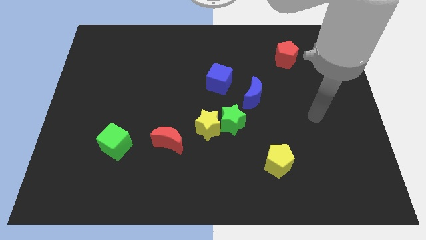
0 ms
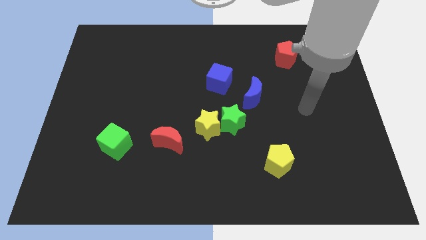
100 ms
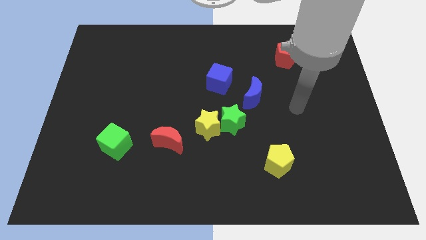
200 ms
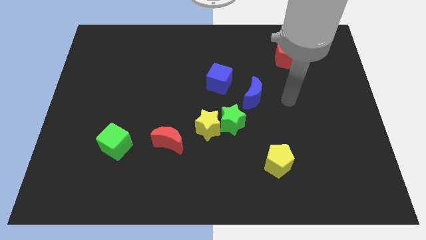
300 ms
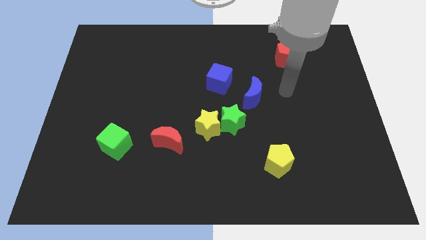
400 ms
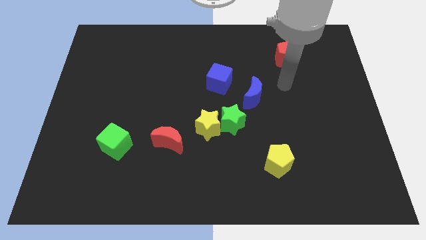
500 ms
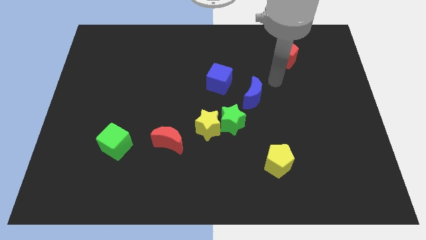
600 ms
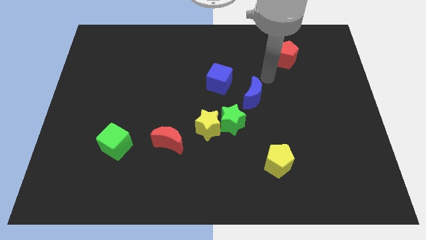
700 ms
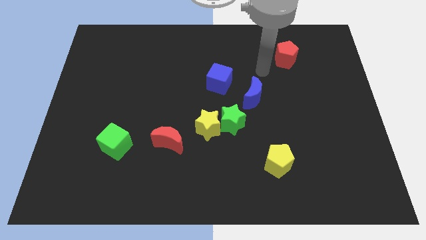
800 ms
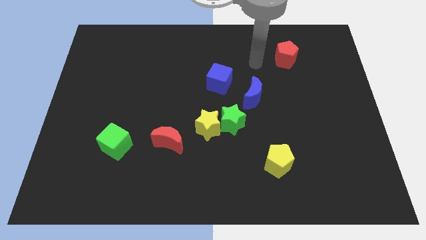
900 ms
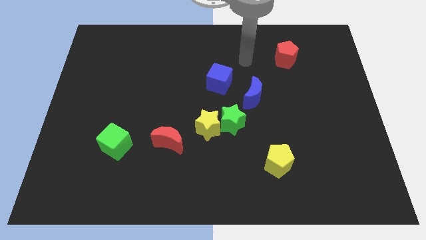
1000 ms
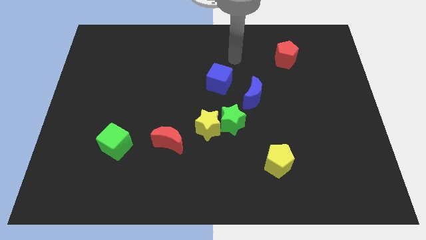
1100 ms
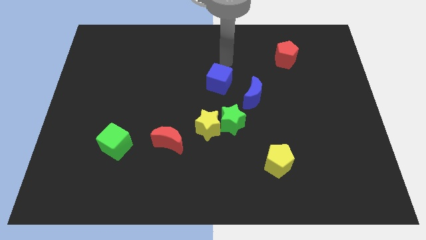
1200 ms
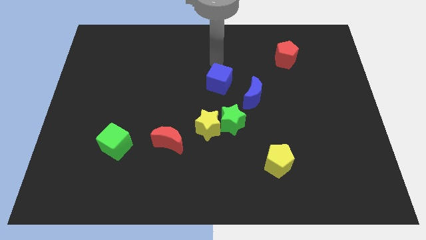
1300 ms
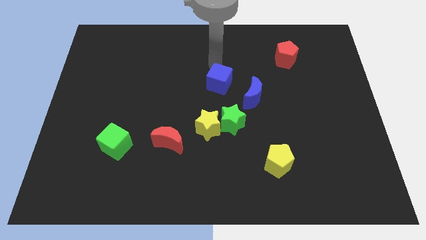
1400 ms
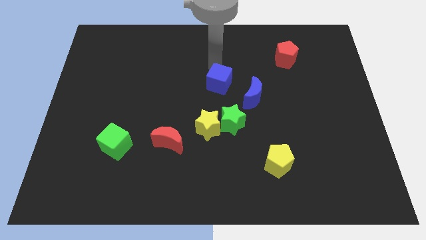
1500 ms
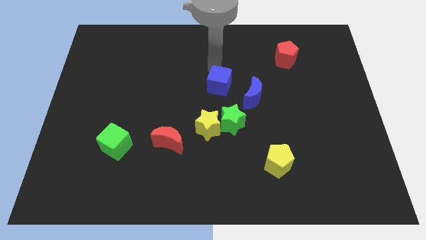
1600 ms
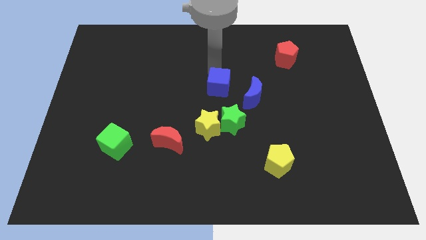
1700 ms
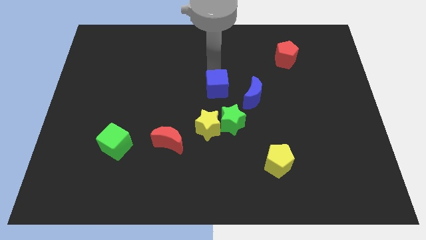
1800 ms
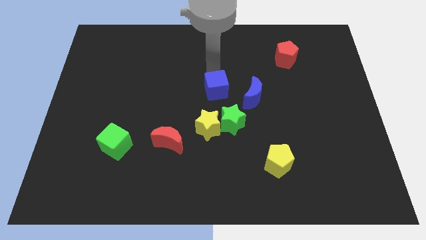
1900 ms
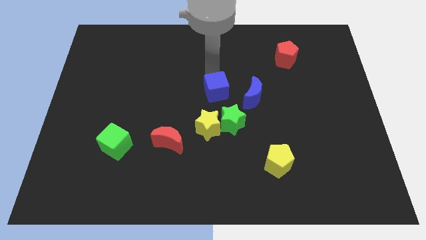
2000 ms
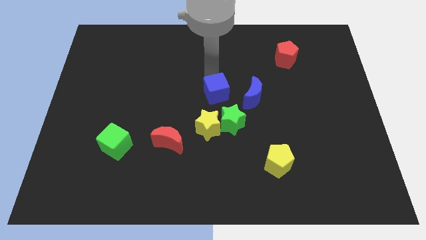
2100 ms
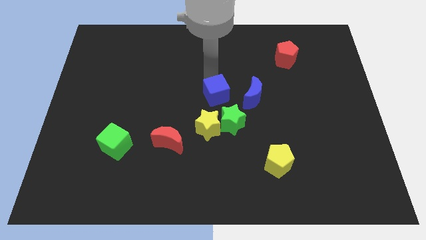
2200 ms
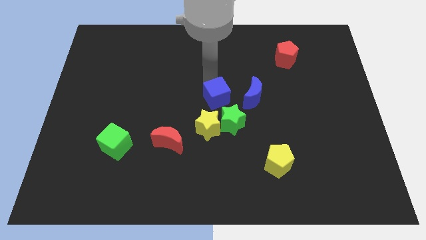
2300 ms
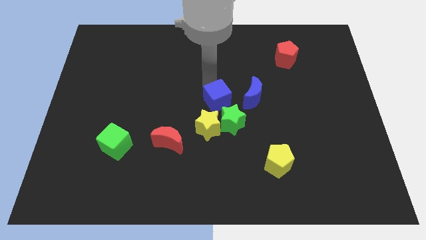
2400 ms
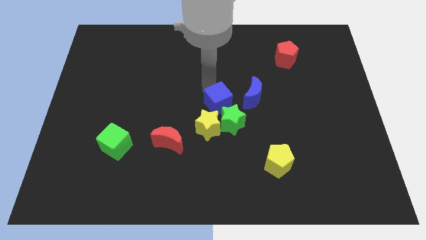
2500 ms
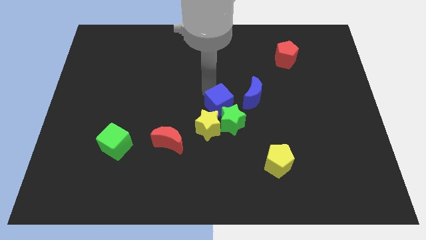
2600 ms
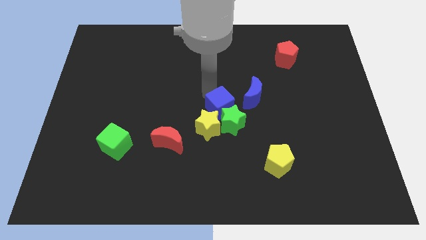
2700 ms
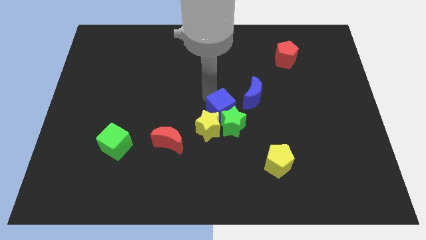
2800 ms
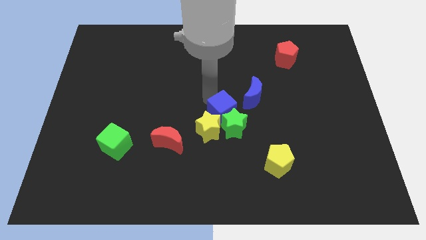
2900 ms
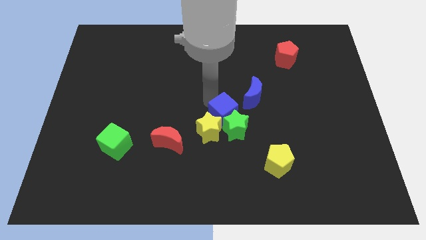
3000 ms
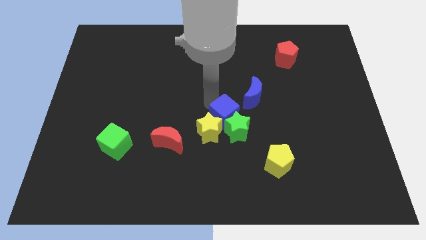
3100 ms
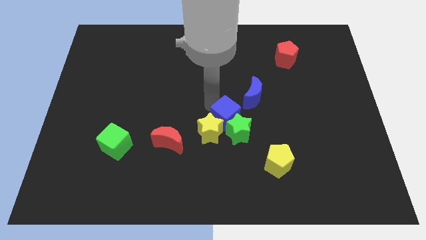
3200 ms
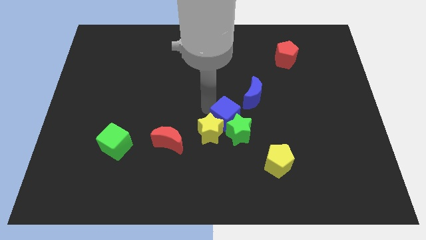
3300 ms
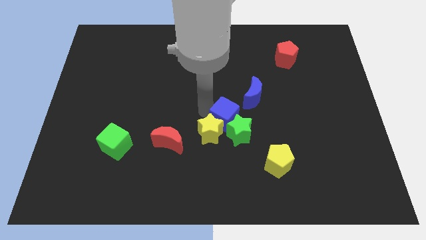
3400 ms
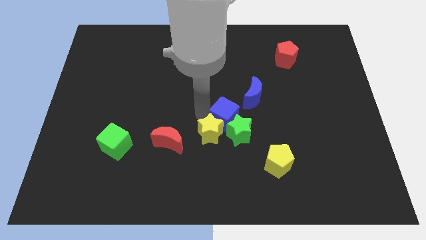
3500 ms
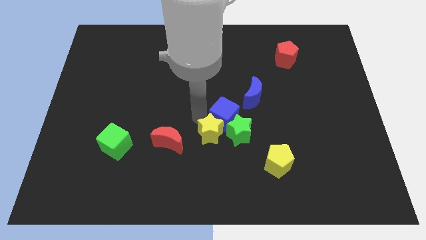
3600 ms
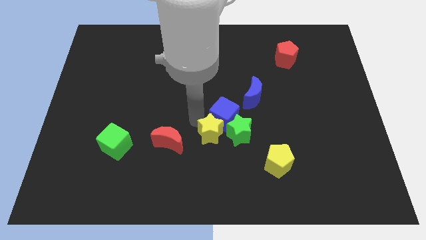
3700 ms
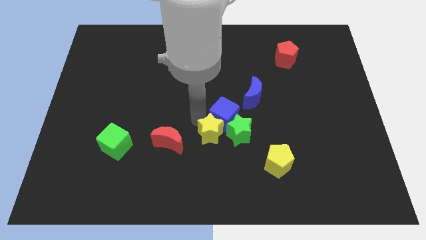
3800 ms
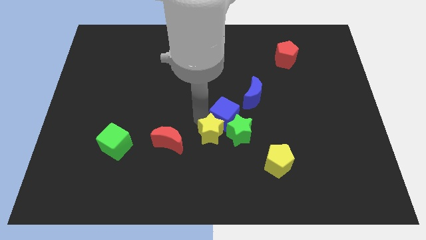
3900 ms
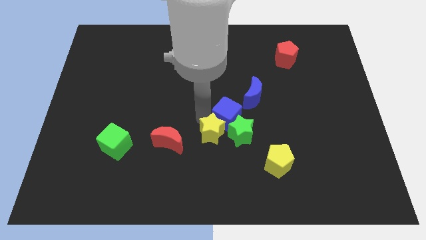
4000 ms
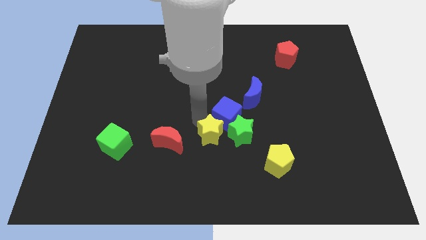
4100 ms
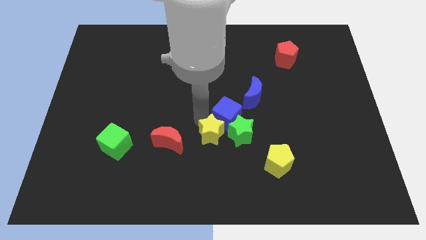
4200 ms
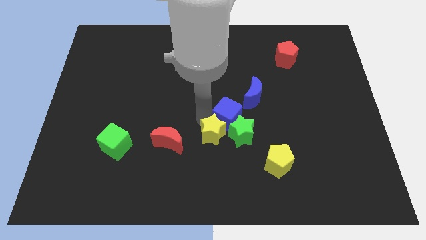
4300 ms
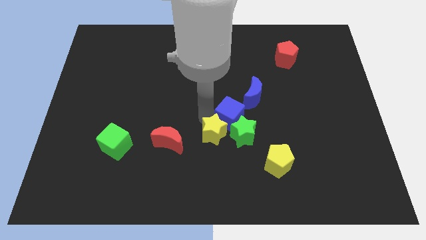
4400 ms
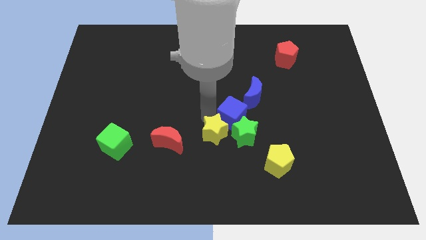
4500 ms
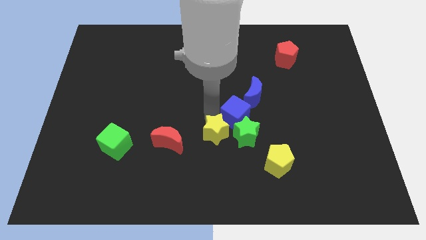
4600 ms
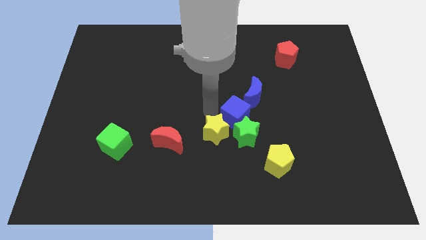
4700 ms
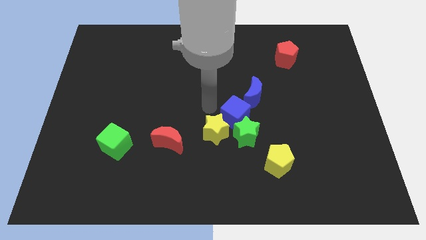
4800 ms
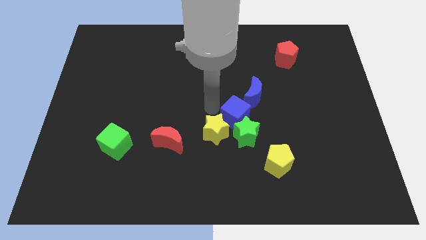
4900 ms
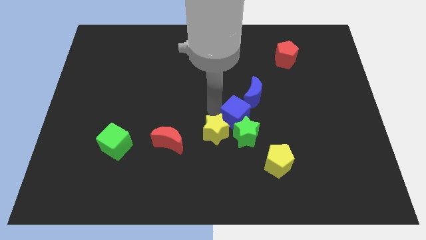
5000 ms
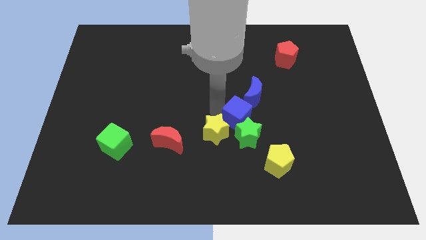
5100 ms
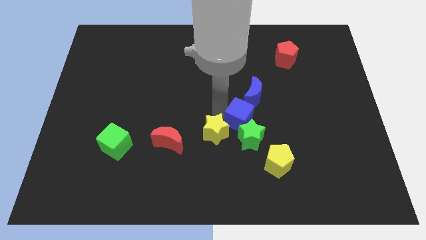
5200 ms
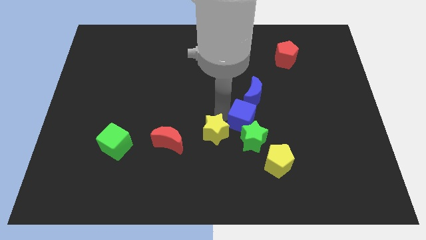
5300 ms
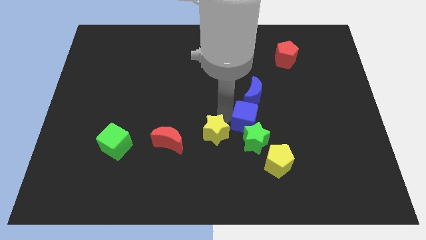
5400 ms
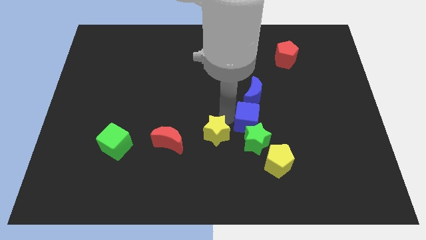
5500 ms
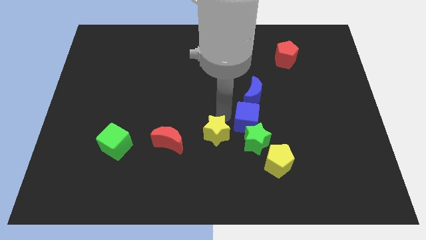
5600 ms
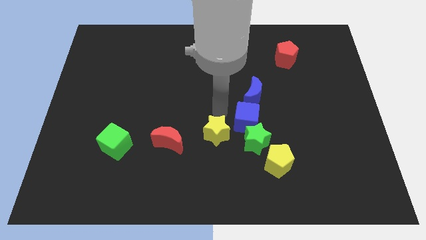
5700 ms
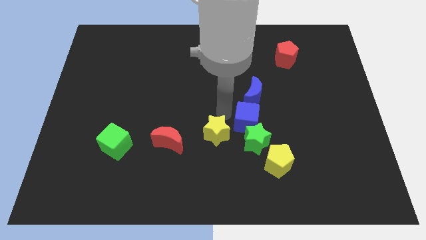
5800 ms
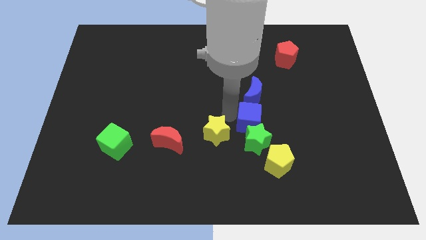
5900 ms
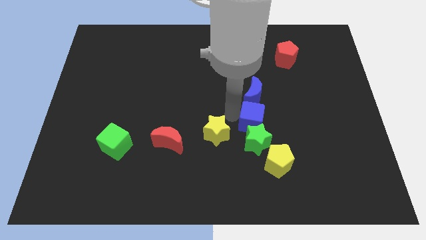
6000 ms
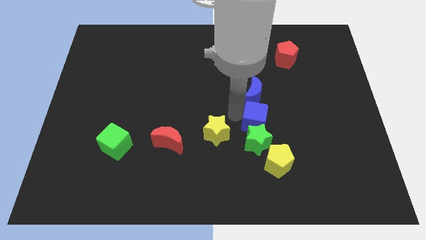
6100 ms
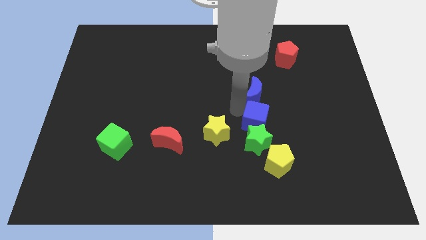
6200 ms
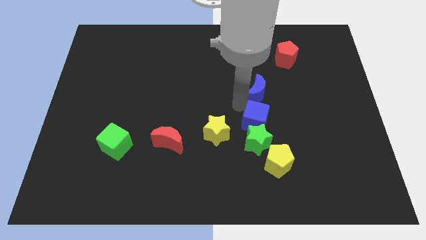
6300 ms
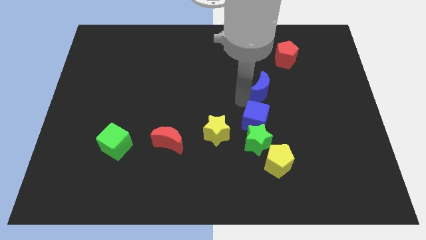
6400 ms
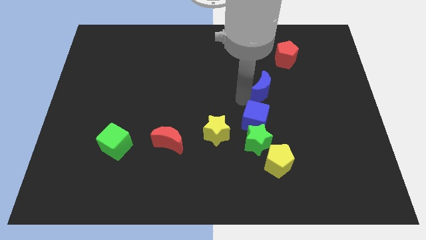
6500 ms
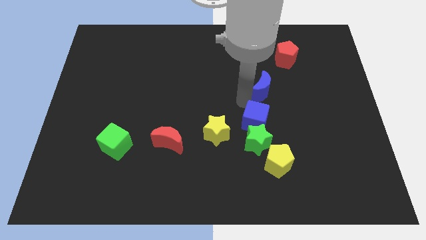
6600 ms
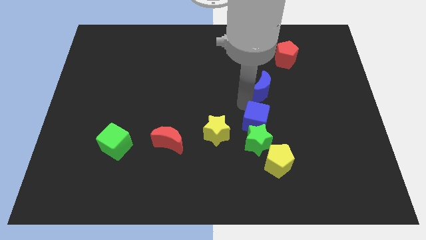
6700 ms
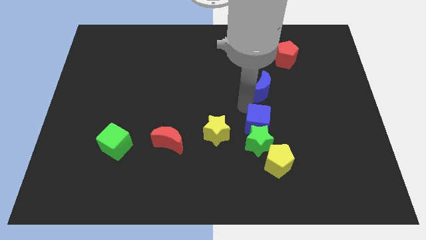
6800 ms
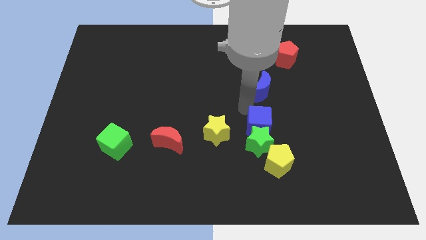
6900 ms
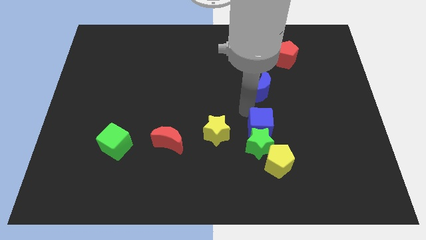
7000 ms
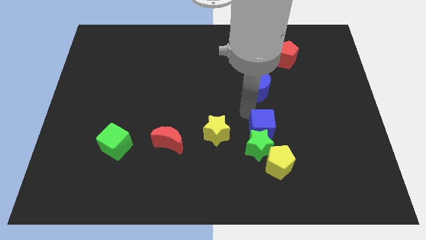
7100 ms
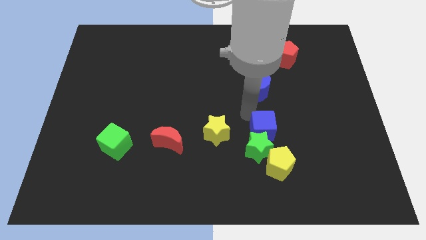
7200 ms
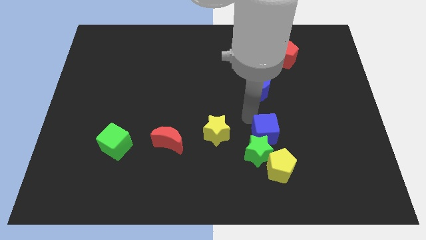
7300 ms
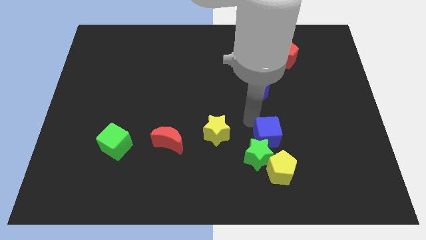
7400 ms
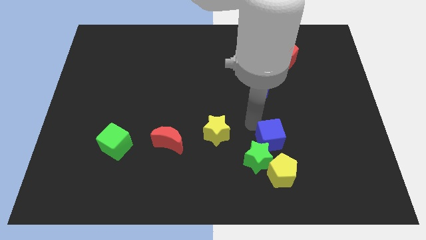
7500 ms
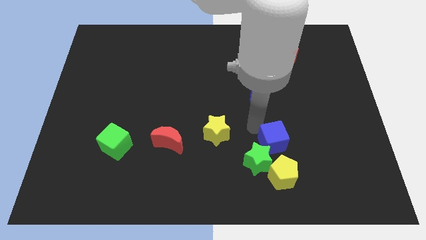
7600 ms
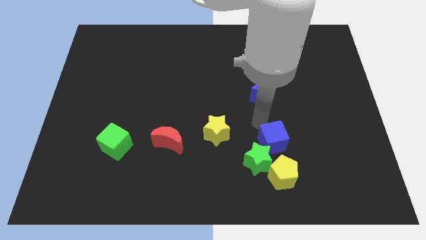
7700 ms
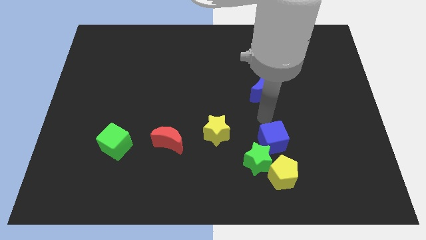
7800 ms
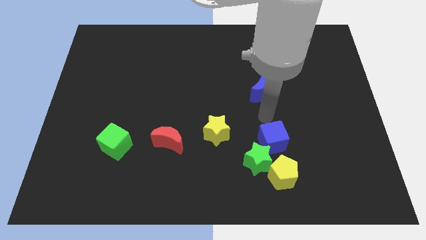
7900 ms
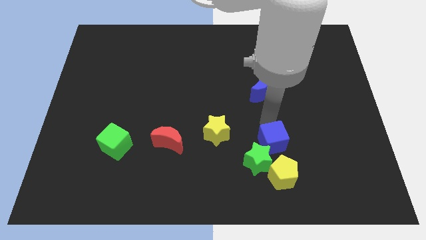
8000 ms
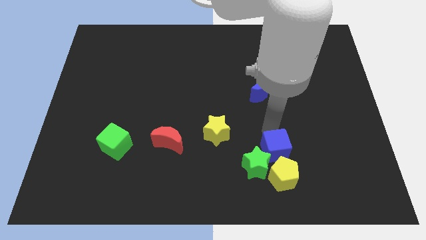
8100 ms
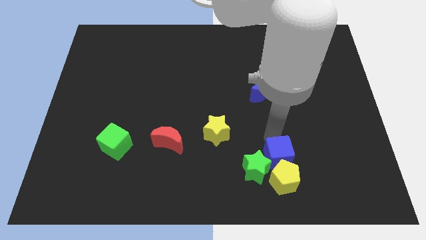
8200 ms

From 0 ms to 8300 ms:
put the blue cube towards the yellow pentagon
